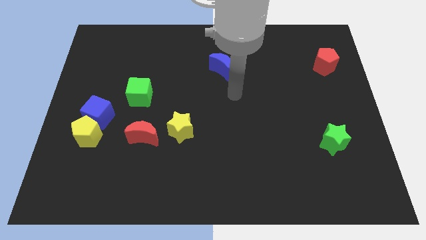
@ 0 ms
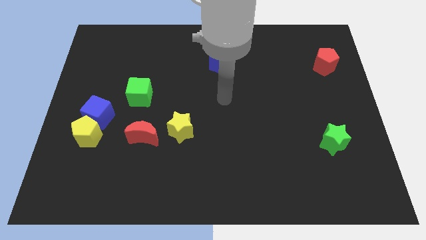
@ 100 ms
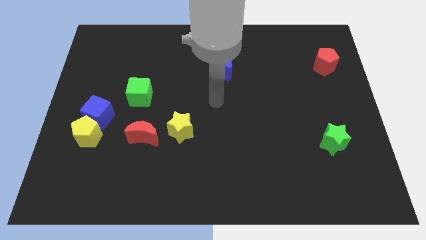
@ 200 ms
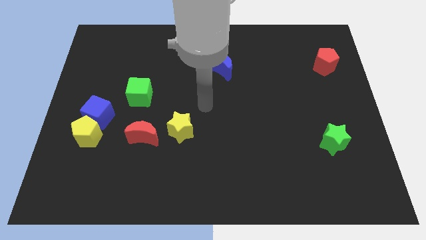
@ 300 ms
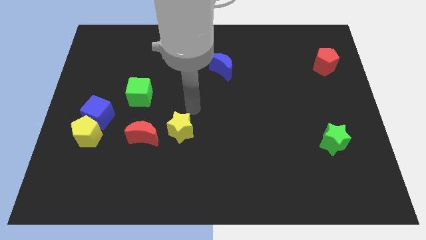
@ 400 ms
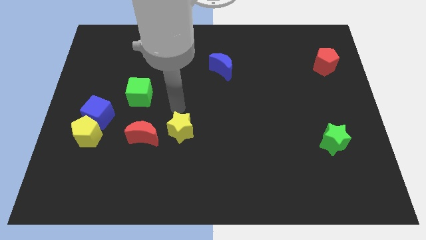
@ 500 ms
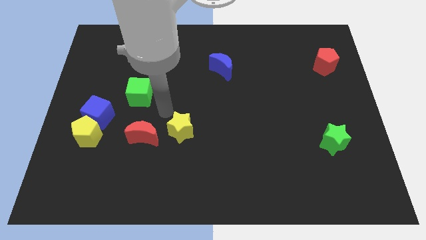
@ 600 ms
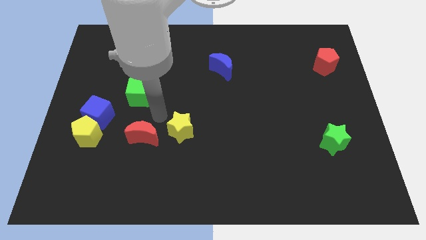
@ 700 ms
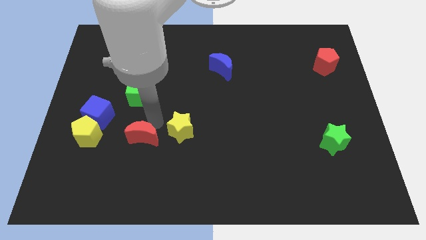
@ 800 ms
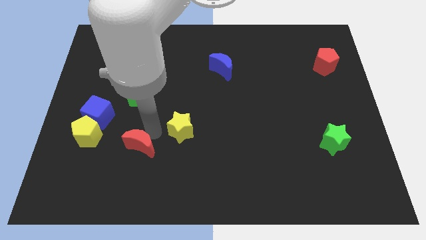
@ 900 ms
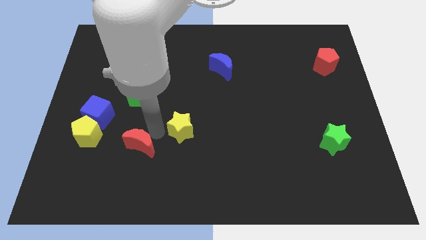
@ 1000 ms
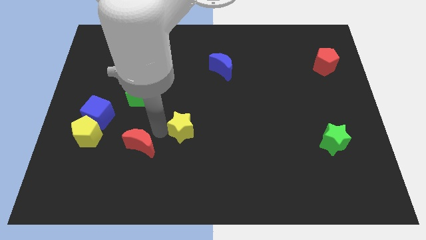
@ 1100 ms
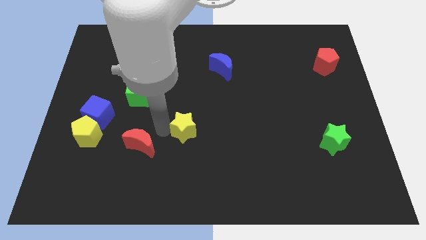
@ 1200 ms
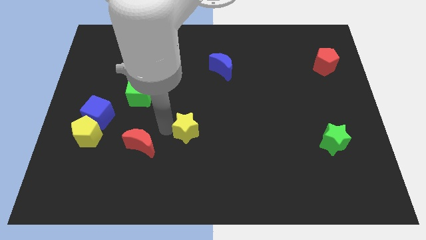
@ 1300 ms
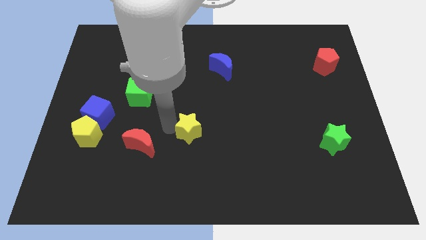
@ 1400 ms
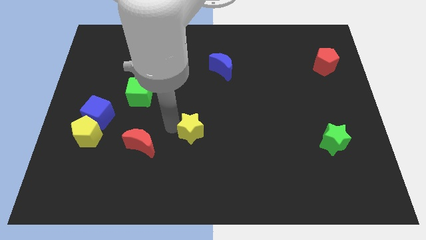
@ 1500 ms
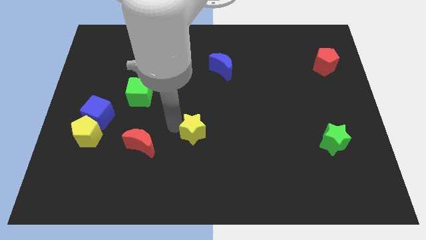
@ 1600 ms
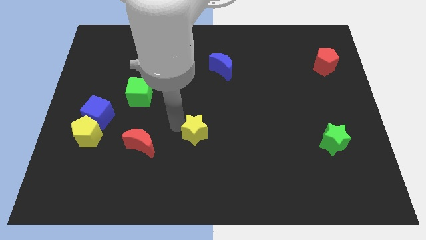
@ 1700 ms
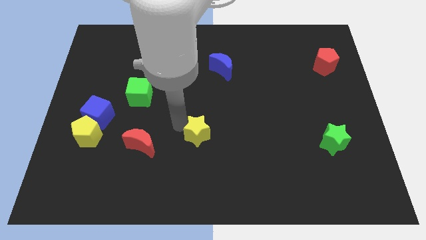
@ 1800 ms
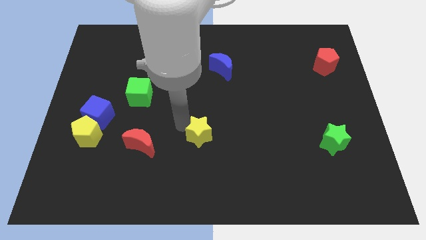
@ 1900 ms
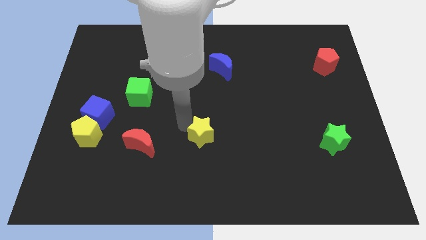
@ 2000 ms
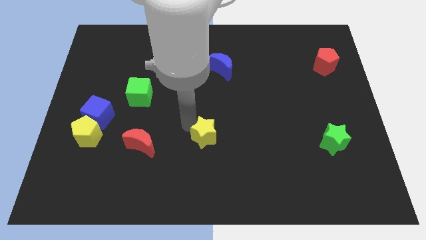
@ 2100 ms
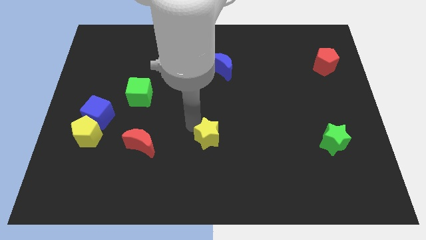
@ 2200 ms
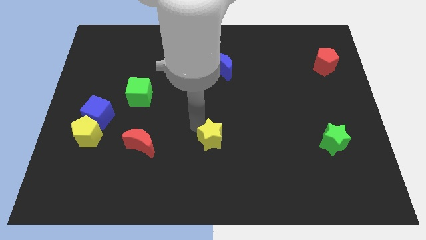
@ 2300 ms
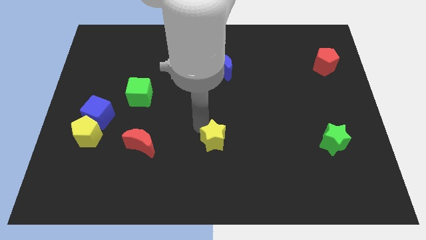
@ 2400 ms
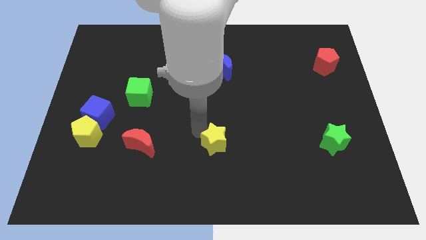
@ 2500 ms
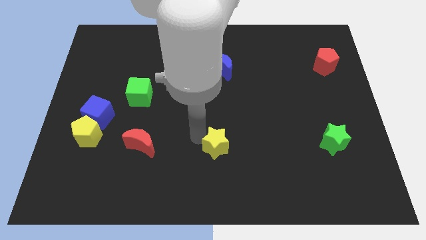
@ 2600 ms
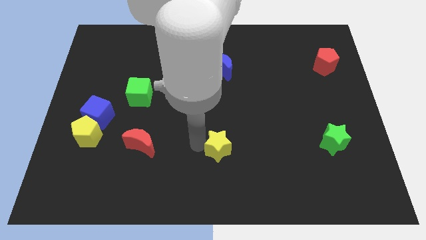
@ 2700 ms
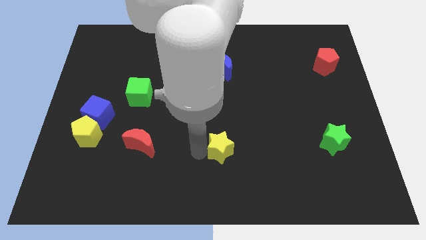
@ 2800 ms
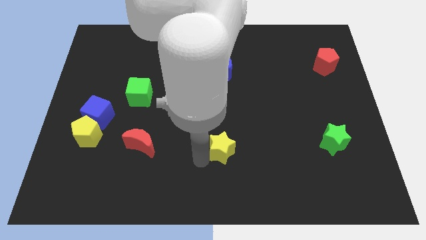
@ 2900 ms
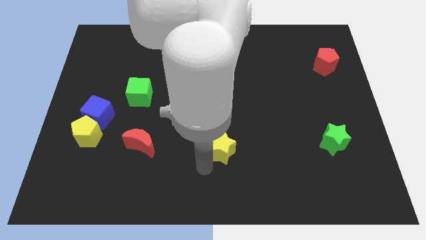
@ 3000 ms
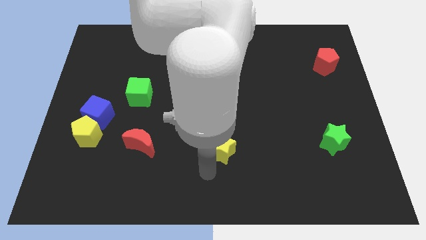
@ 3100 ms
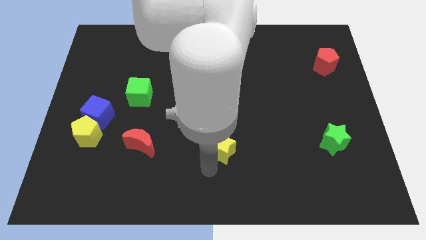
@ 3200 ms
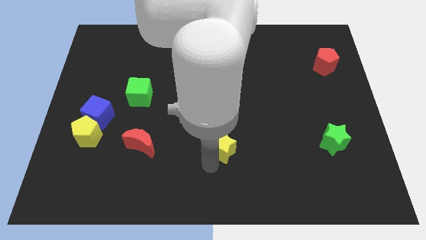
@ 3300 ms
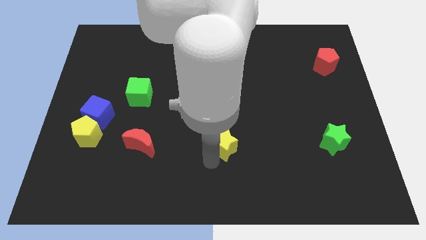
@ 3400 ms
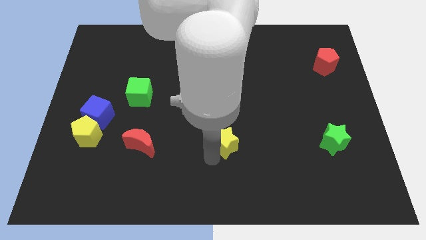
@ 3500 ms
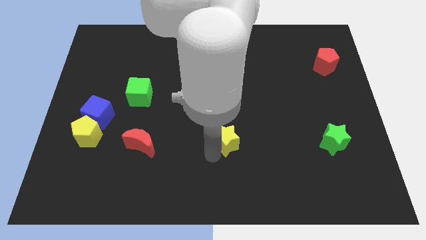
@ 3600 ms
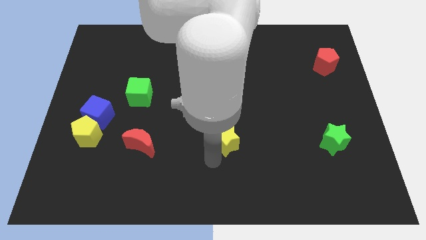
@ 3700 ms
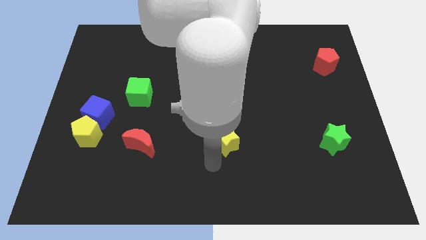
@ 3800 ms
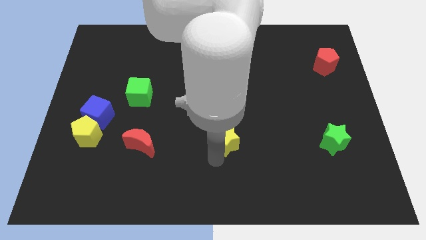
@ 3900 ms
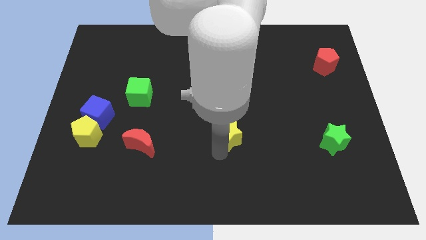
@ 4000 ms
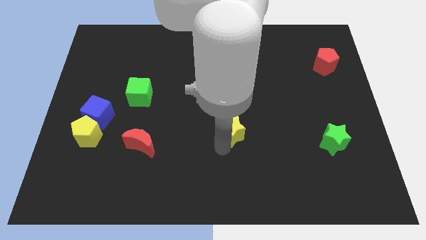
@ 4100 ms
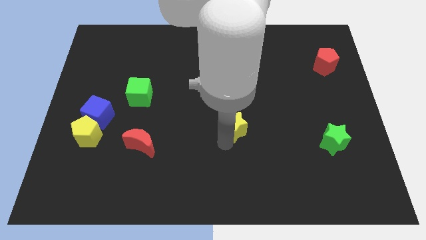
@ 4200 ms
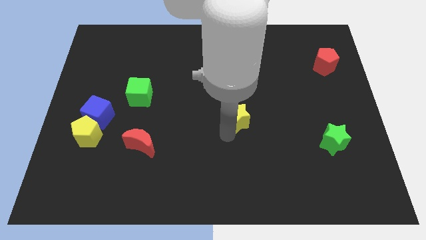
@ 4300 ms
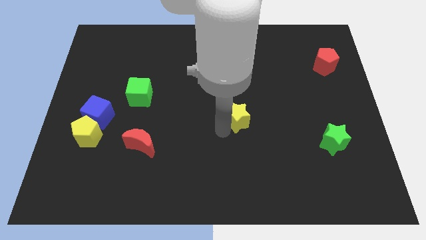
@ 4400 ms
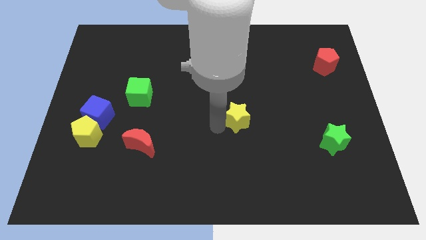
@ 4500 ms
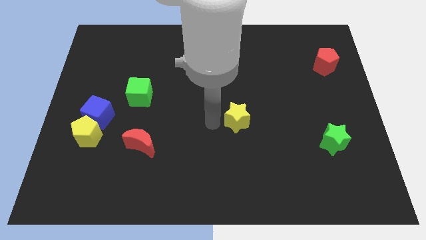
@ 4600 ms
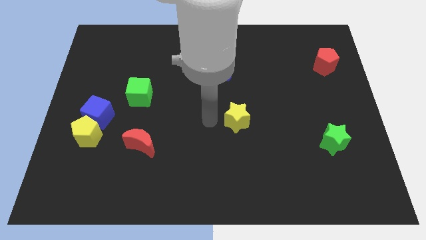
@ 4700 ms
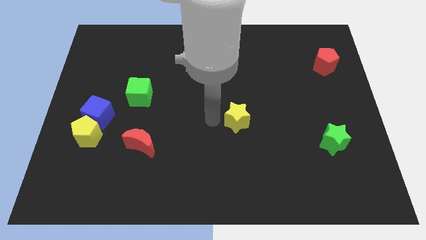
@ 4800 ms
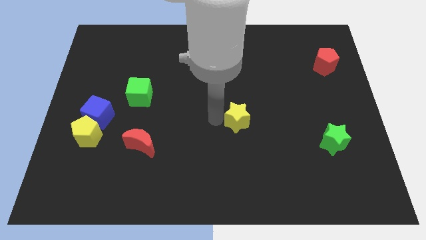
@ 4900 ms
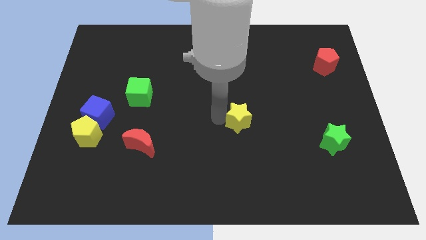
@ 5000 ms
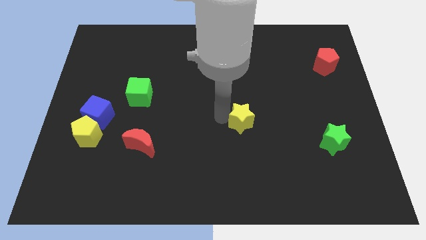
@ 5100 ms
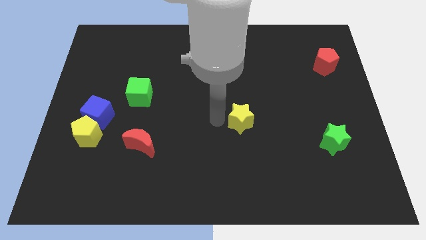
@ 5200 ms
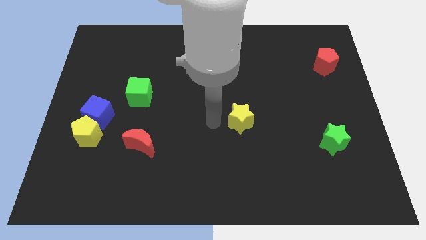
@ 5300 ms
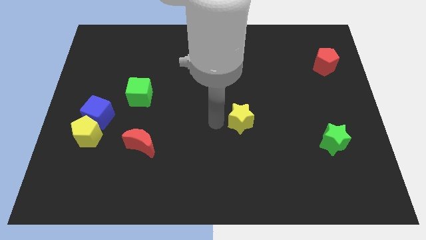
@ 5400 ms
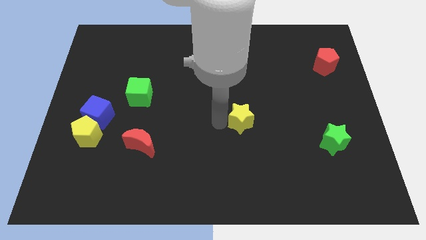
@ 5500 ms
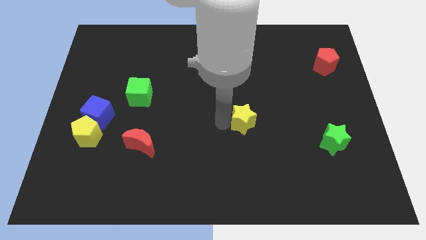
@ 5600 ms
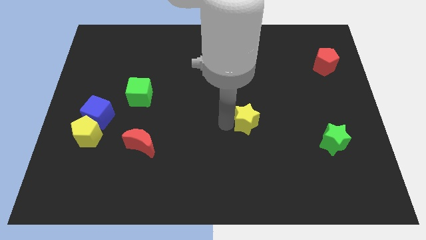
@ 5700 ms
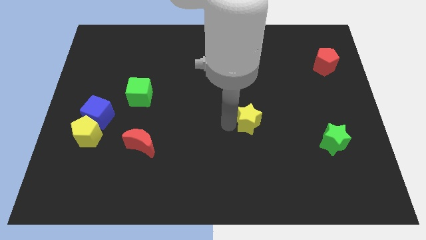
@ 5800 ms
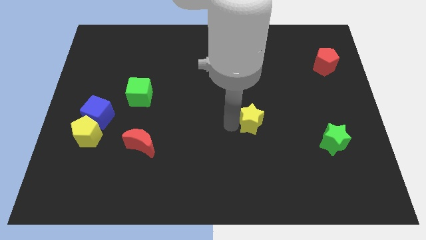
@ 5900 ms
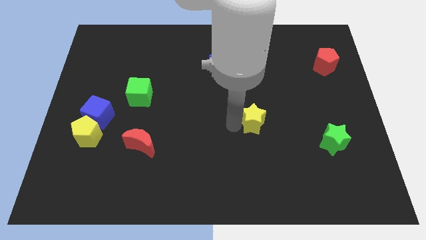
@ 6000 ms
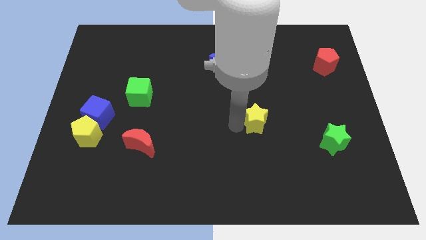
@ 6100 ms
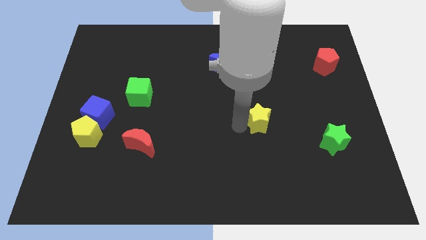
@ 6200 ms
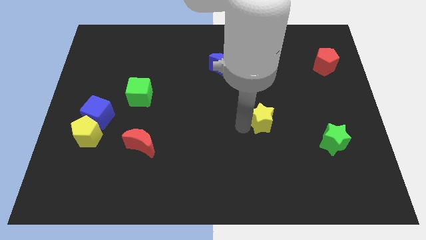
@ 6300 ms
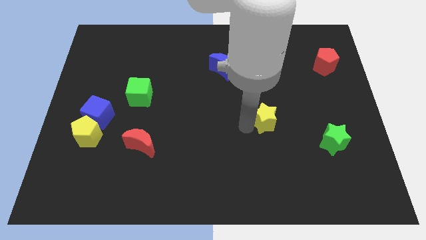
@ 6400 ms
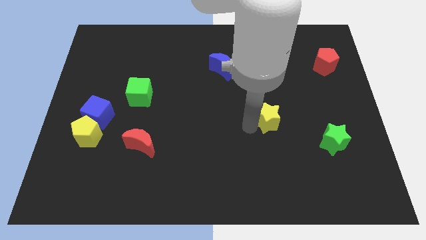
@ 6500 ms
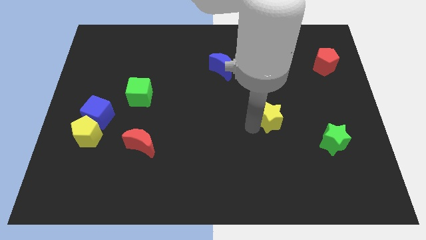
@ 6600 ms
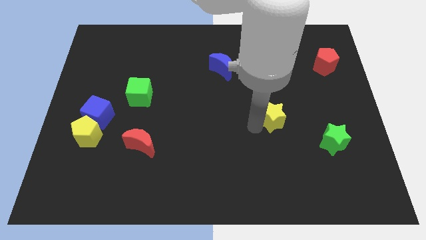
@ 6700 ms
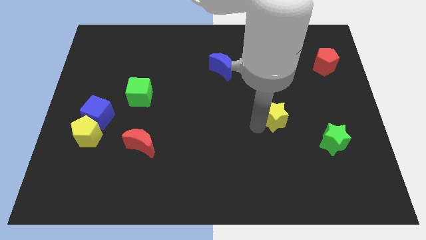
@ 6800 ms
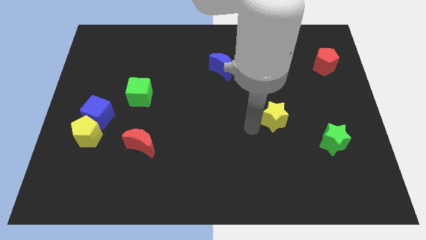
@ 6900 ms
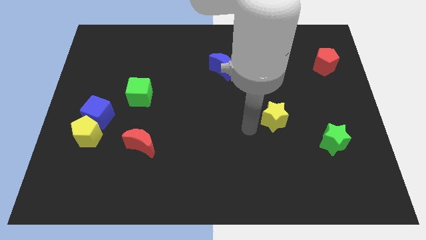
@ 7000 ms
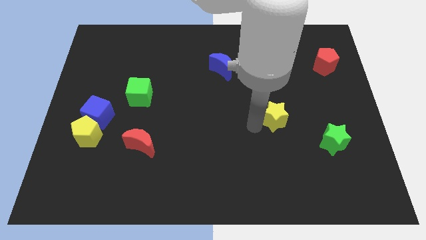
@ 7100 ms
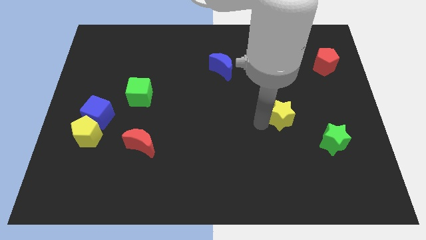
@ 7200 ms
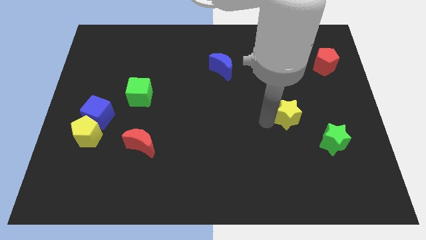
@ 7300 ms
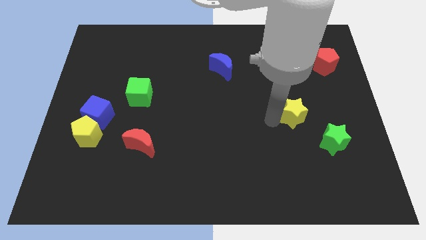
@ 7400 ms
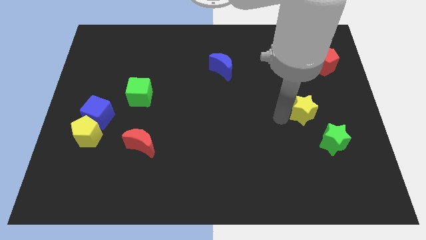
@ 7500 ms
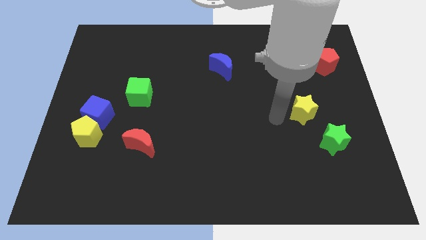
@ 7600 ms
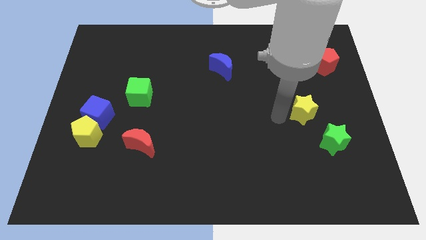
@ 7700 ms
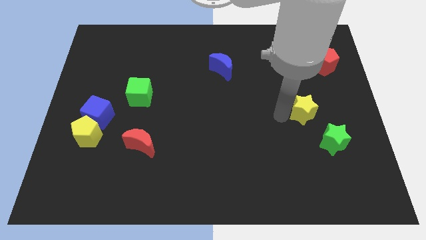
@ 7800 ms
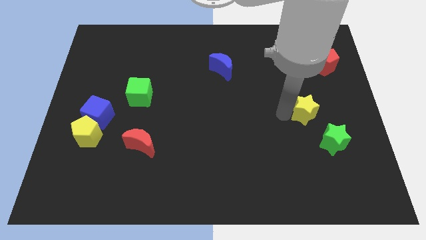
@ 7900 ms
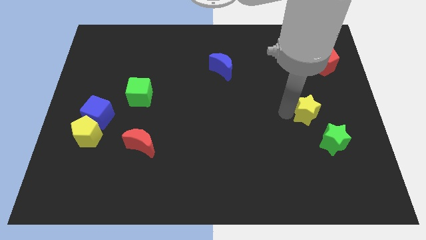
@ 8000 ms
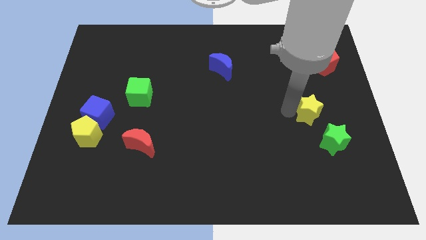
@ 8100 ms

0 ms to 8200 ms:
put the yellow star to the top side of the green star
